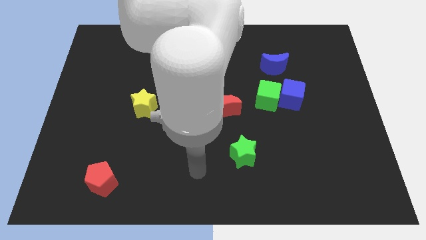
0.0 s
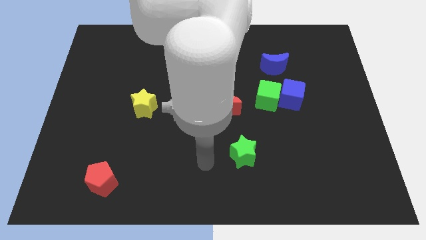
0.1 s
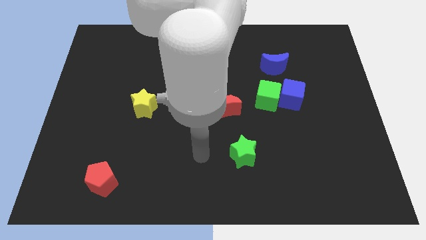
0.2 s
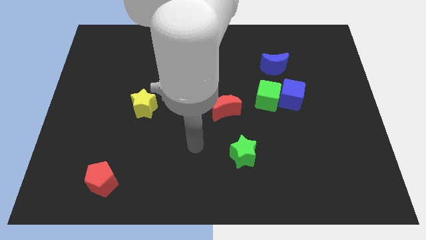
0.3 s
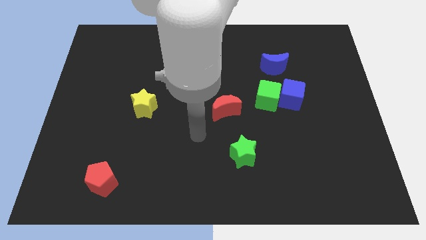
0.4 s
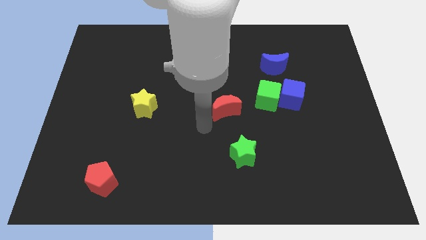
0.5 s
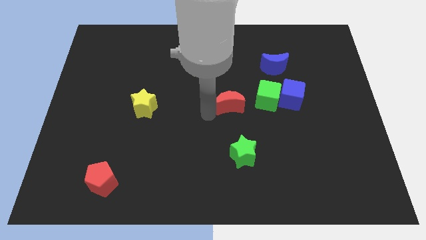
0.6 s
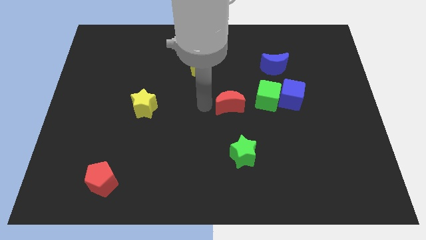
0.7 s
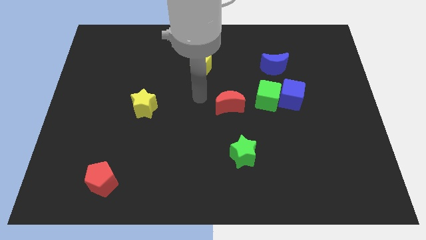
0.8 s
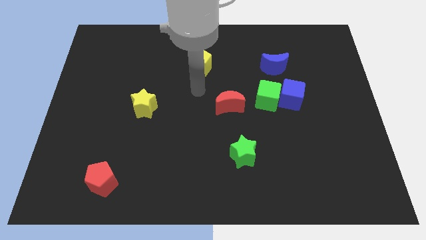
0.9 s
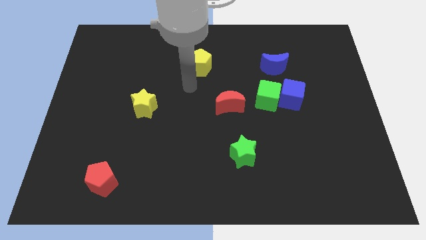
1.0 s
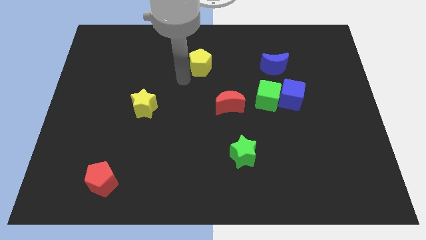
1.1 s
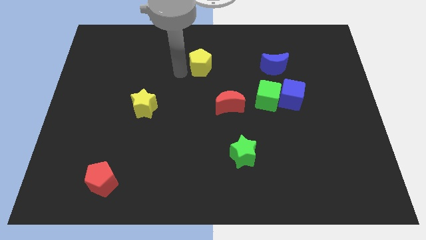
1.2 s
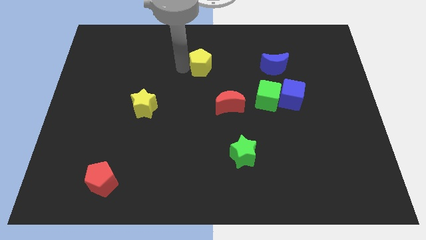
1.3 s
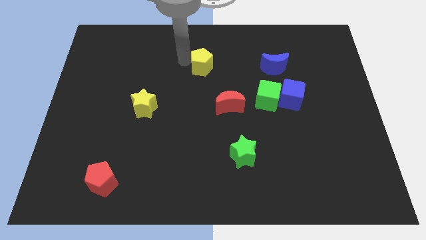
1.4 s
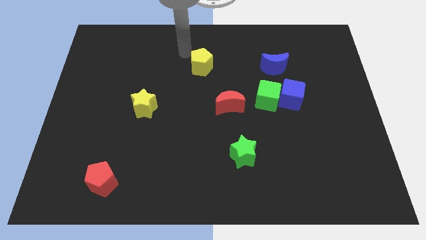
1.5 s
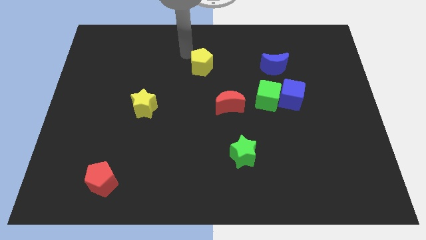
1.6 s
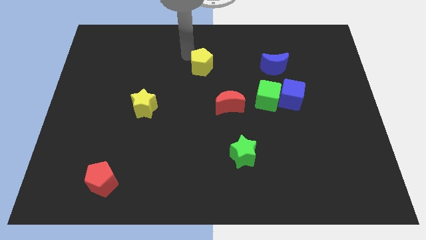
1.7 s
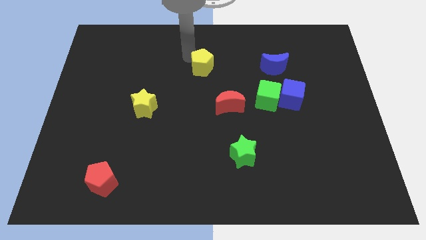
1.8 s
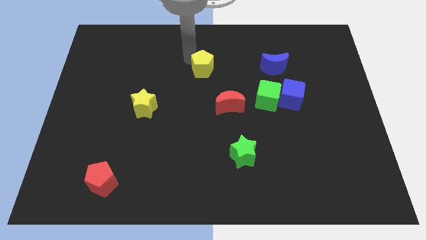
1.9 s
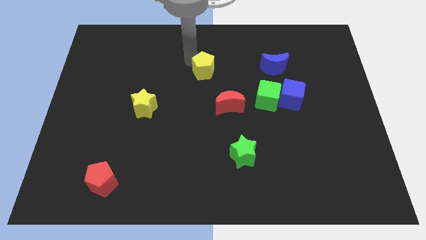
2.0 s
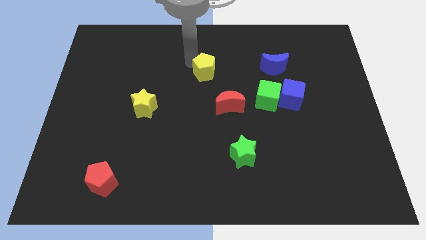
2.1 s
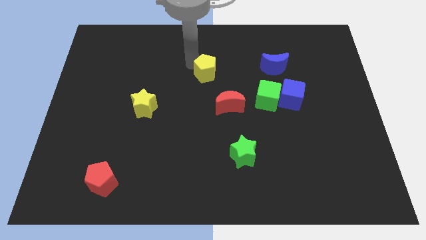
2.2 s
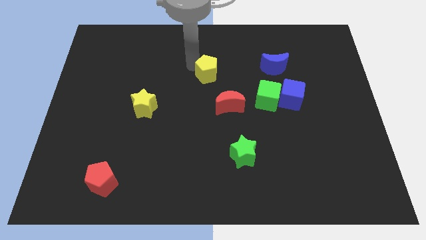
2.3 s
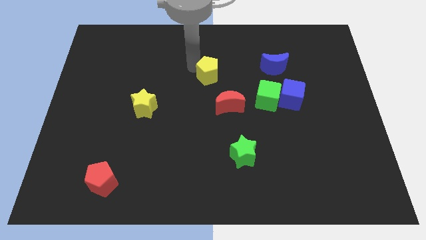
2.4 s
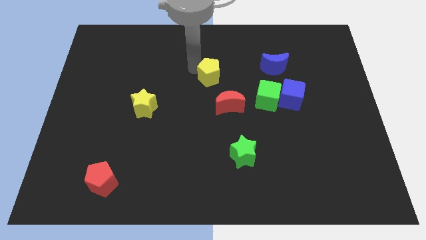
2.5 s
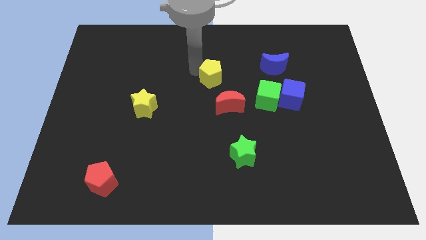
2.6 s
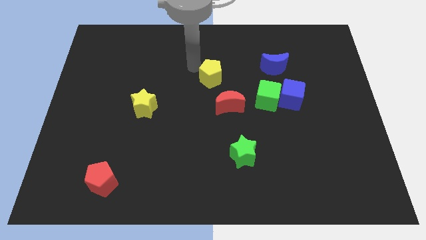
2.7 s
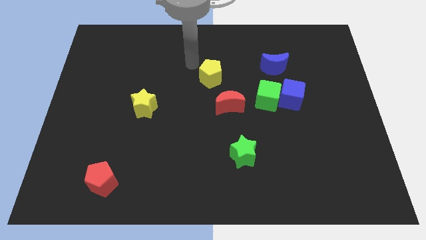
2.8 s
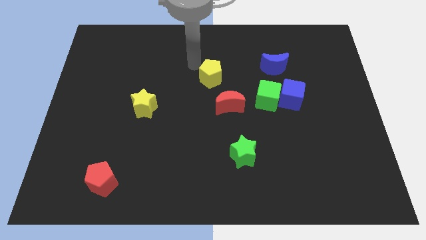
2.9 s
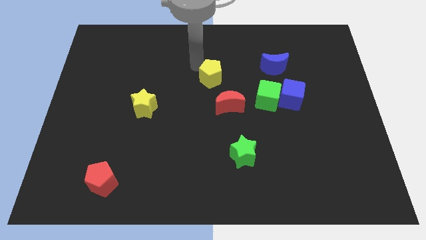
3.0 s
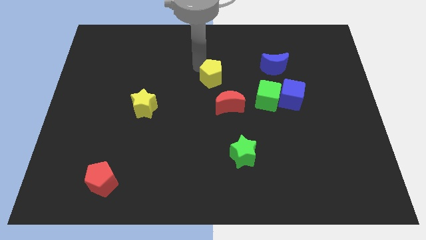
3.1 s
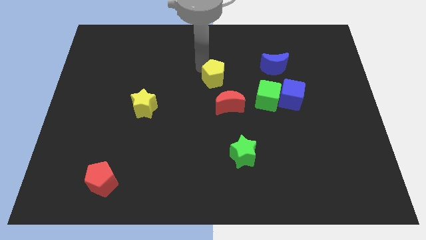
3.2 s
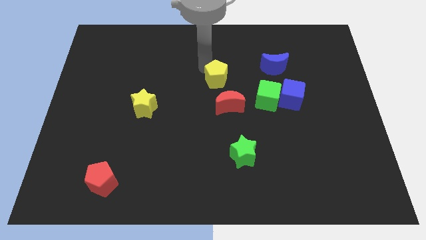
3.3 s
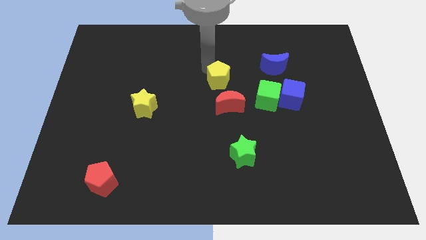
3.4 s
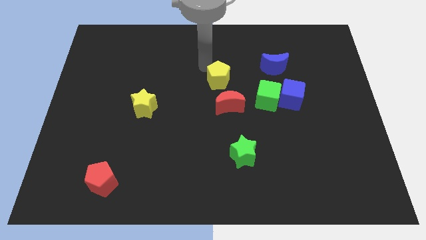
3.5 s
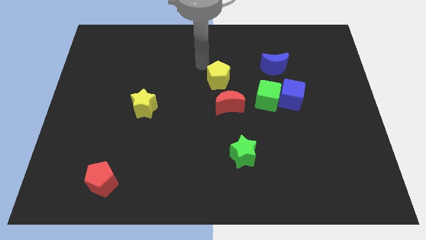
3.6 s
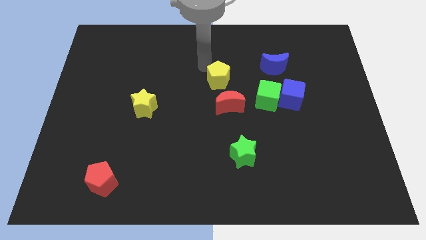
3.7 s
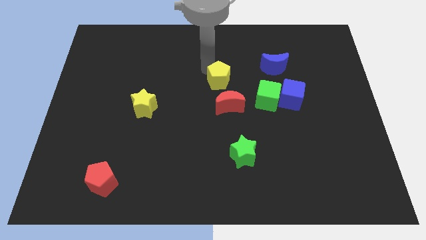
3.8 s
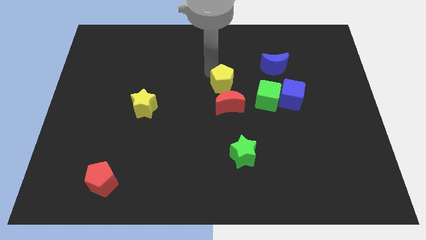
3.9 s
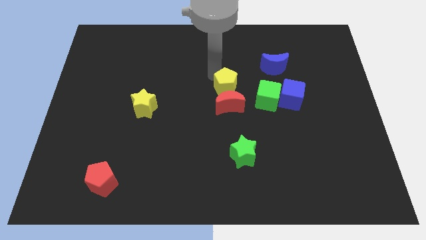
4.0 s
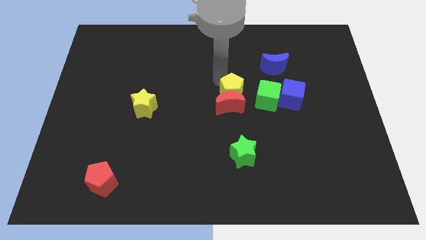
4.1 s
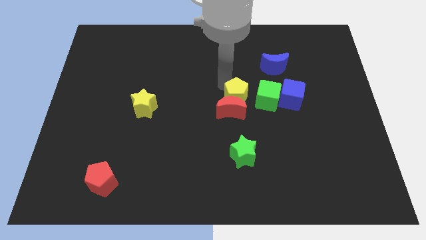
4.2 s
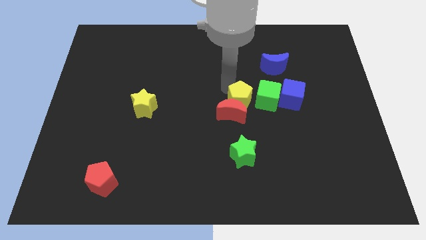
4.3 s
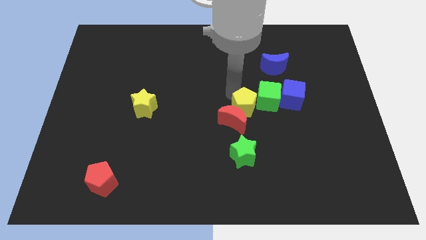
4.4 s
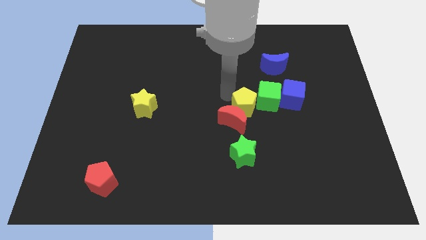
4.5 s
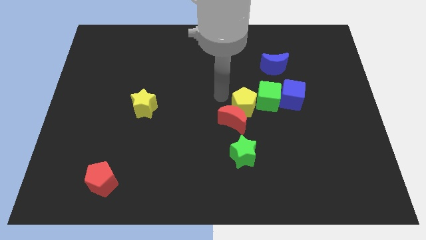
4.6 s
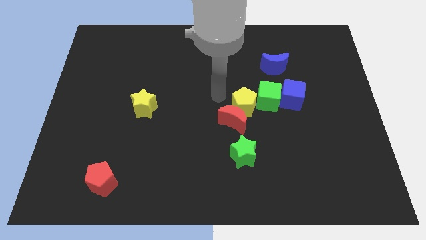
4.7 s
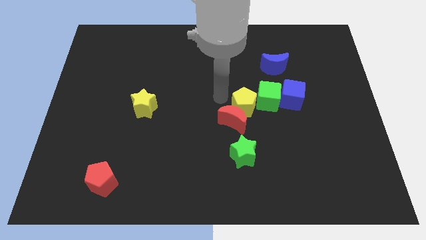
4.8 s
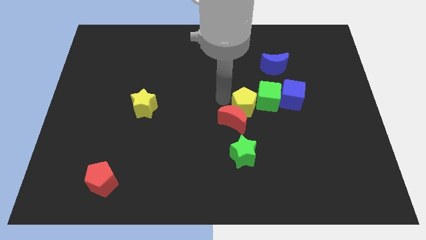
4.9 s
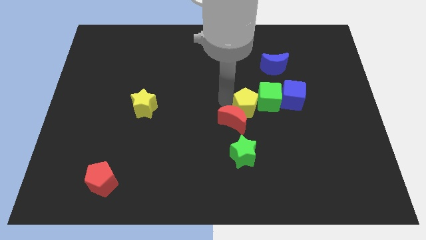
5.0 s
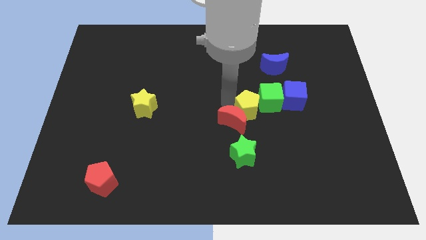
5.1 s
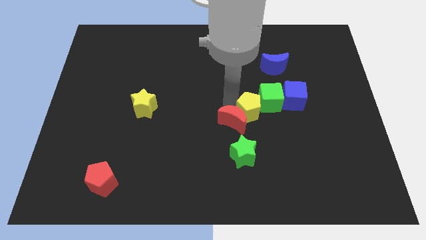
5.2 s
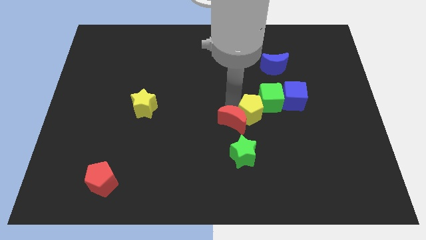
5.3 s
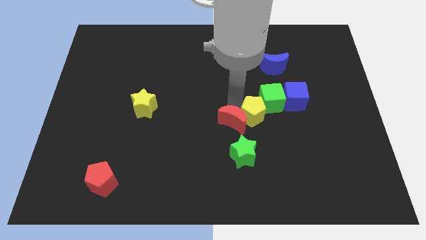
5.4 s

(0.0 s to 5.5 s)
push the yellow pentagon to the bottom left of the blue cube

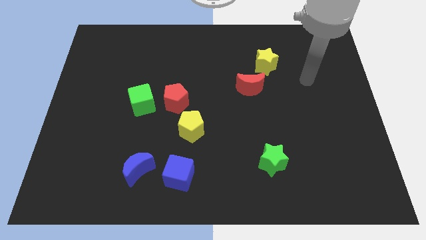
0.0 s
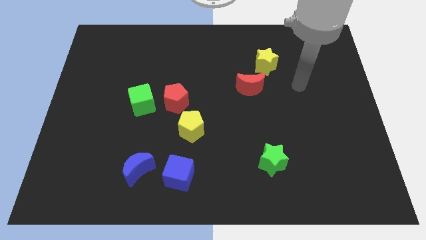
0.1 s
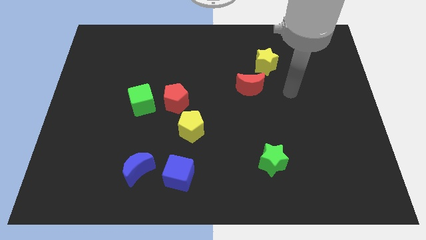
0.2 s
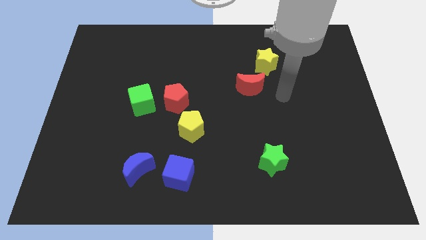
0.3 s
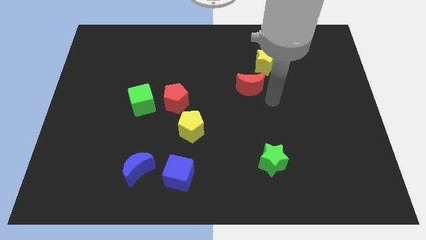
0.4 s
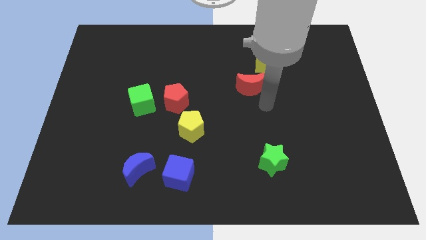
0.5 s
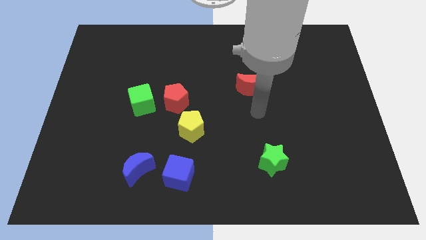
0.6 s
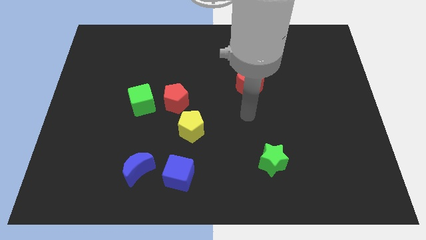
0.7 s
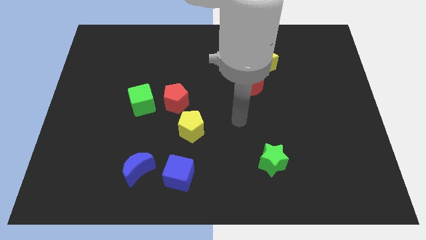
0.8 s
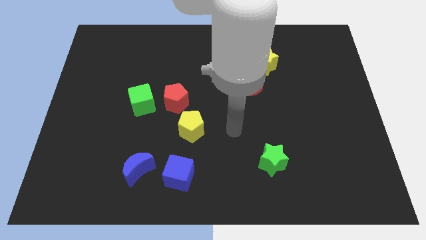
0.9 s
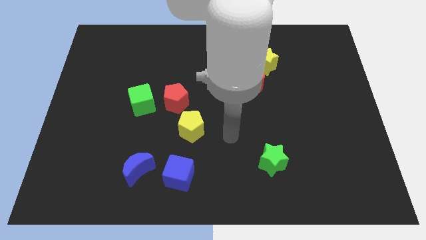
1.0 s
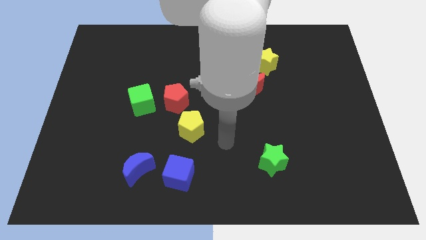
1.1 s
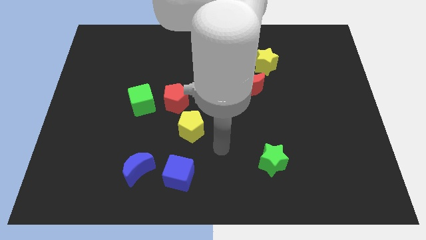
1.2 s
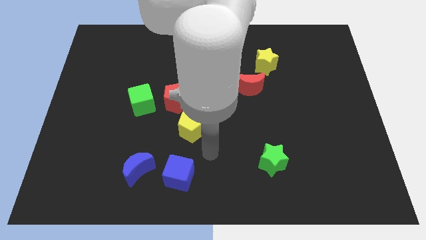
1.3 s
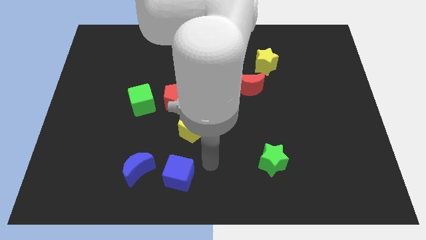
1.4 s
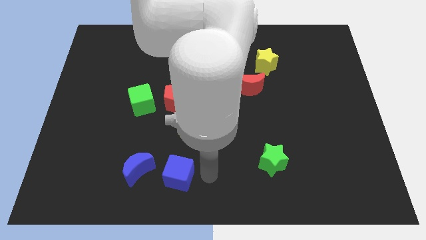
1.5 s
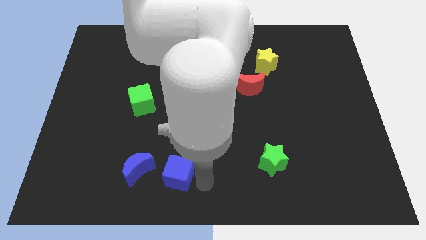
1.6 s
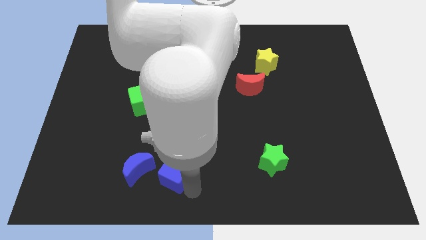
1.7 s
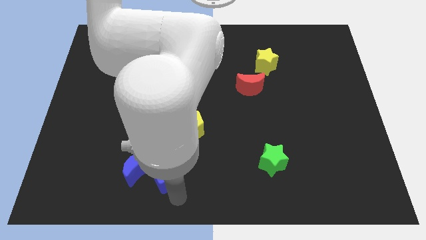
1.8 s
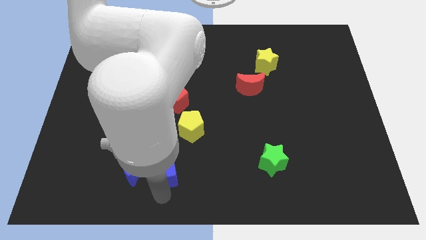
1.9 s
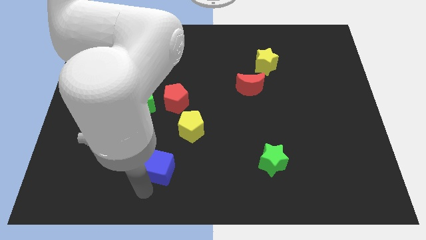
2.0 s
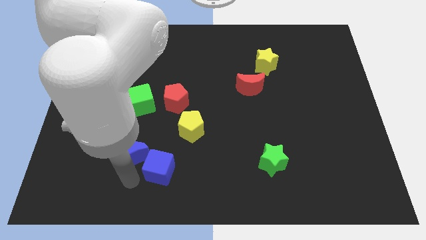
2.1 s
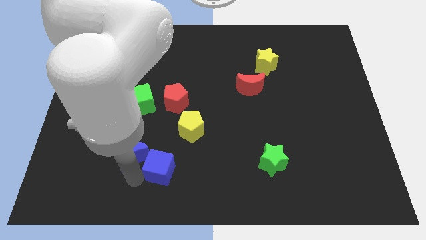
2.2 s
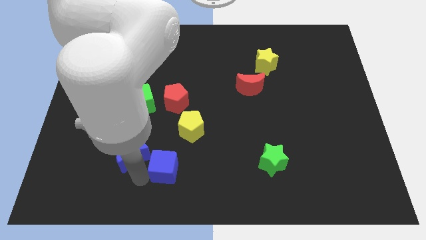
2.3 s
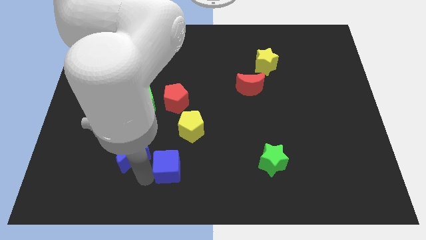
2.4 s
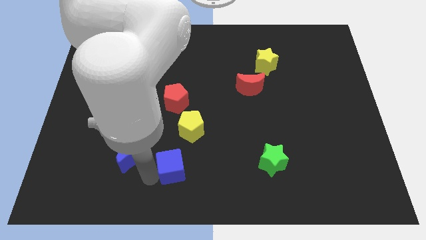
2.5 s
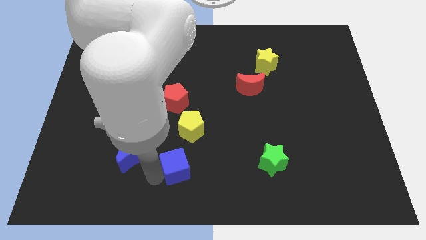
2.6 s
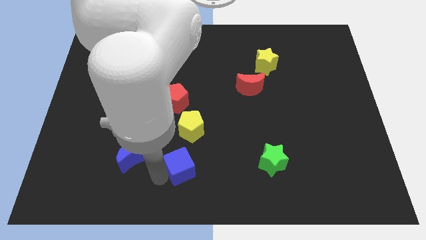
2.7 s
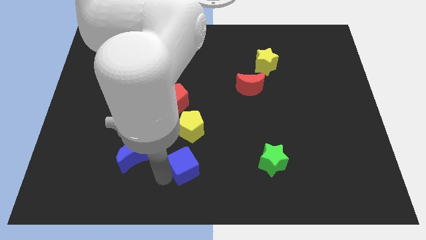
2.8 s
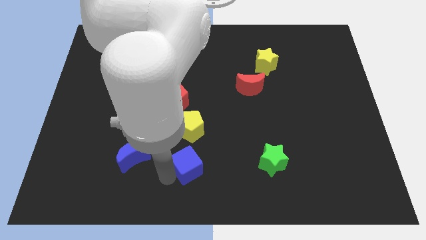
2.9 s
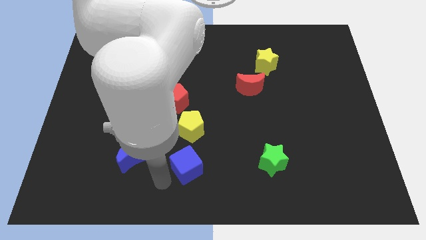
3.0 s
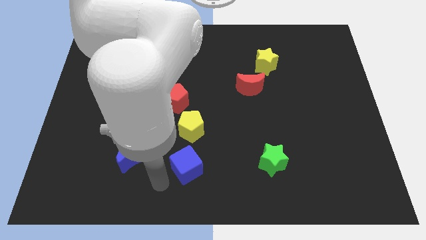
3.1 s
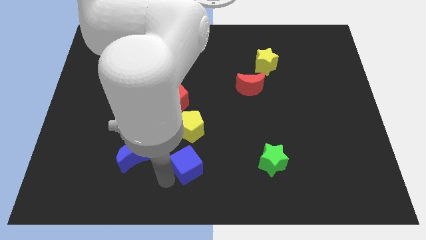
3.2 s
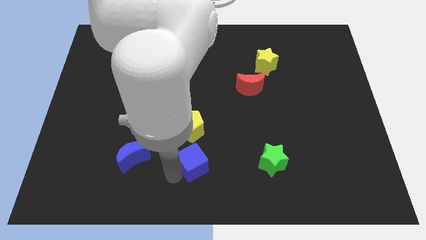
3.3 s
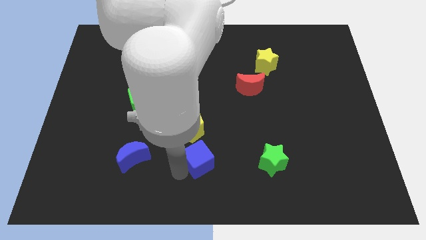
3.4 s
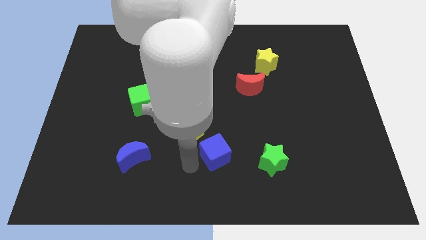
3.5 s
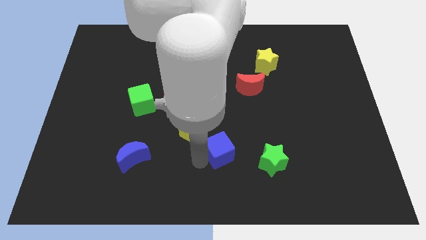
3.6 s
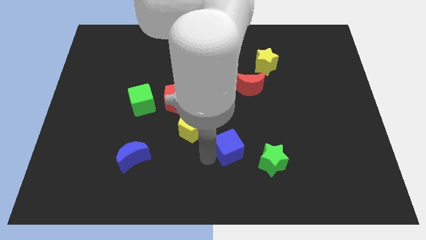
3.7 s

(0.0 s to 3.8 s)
push the blue cube to the top left of the green star
